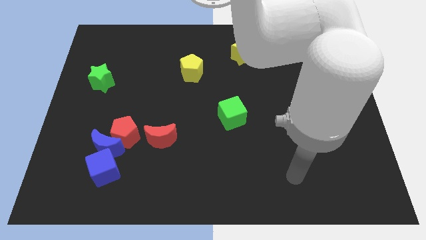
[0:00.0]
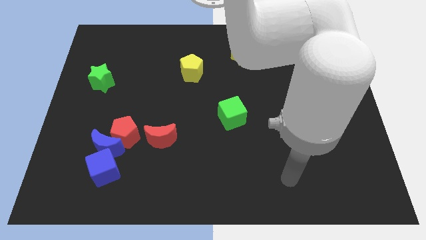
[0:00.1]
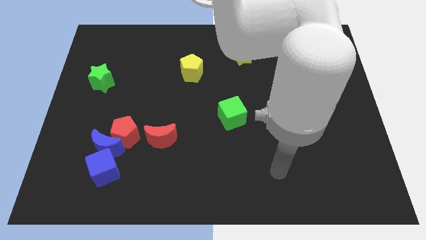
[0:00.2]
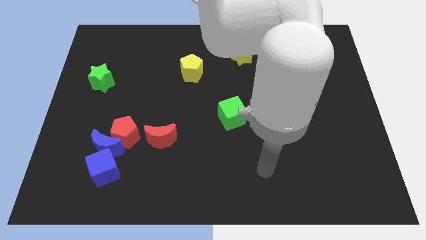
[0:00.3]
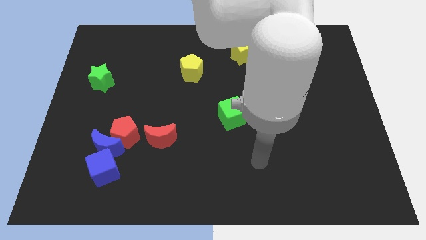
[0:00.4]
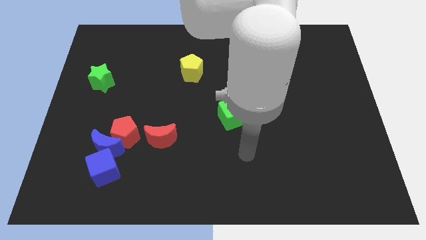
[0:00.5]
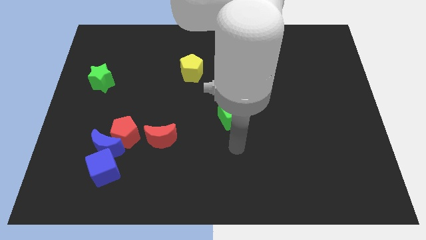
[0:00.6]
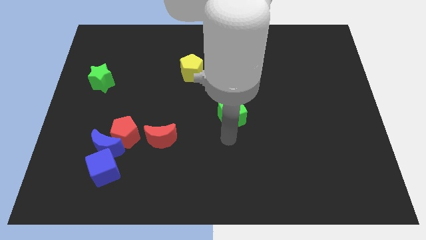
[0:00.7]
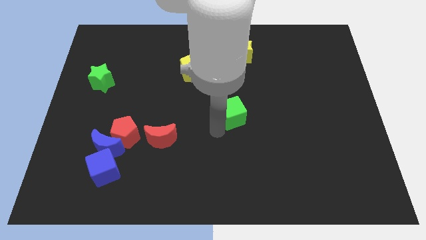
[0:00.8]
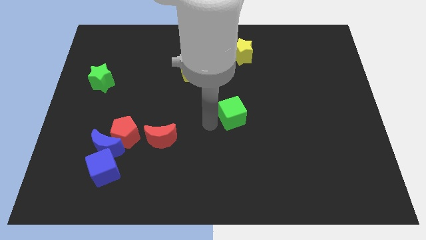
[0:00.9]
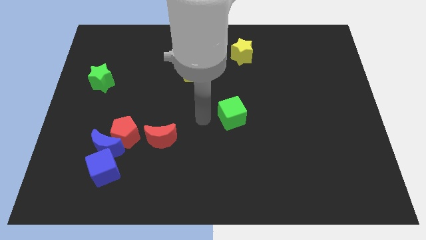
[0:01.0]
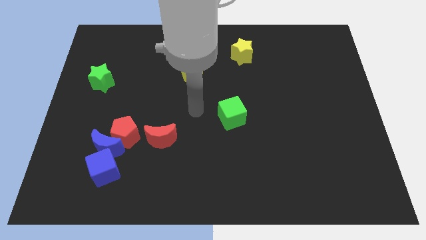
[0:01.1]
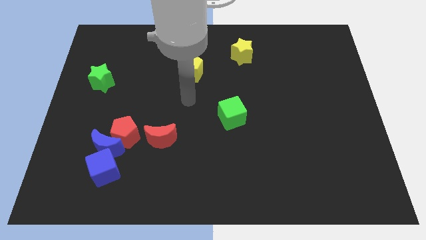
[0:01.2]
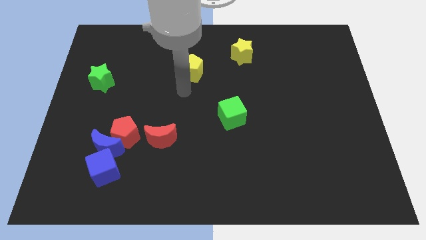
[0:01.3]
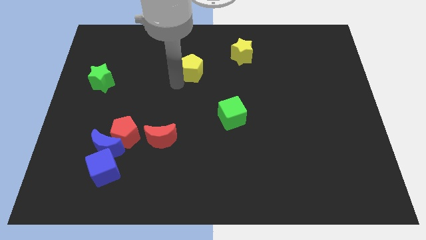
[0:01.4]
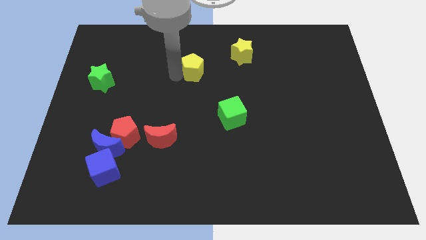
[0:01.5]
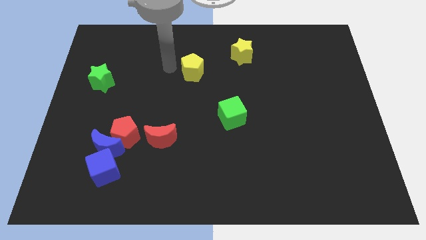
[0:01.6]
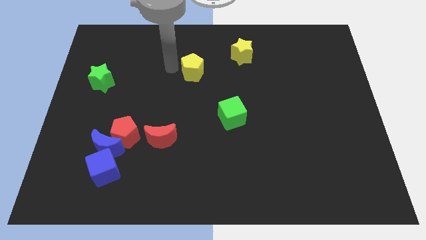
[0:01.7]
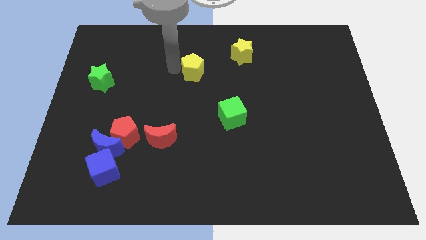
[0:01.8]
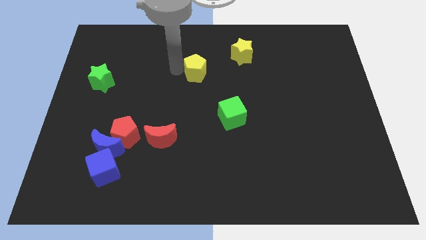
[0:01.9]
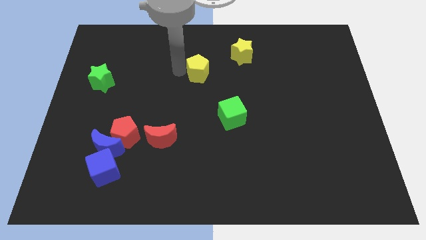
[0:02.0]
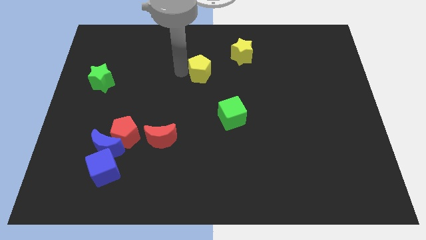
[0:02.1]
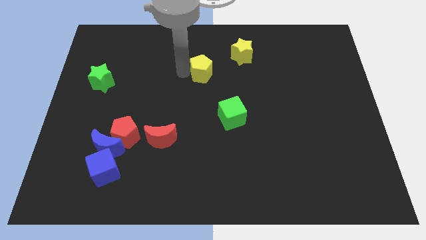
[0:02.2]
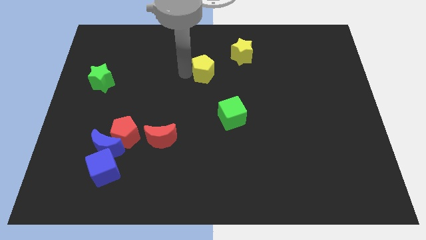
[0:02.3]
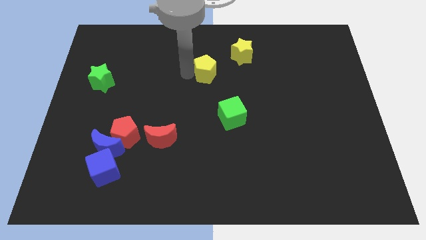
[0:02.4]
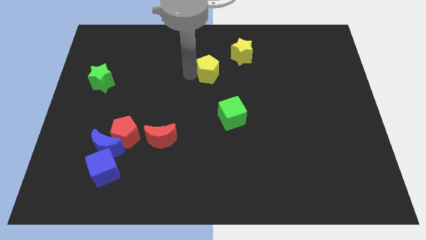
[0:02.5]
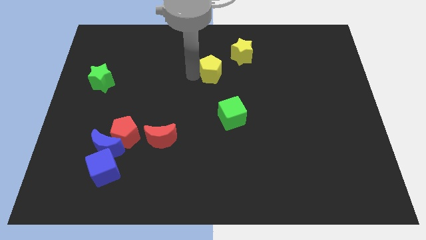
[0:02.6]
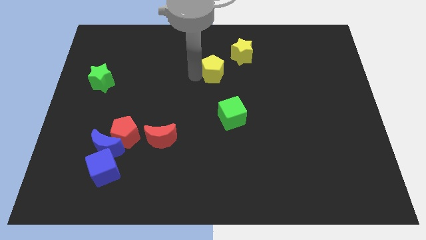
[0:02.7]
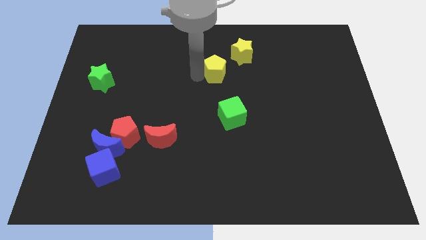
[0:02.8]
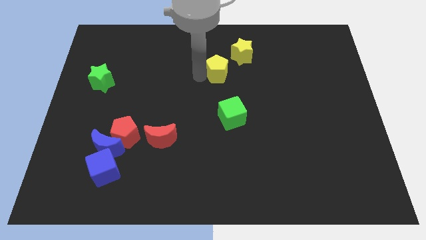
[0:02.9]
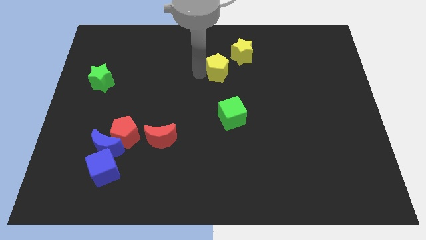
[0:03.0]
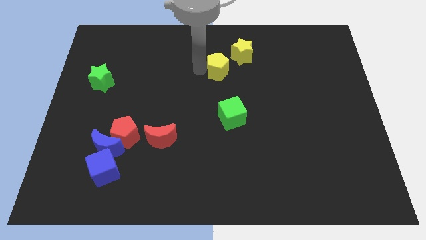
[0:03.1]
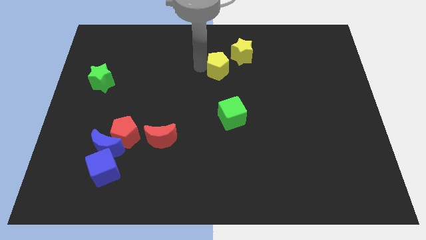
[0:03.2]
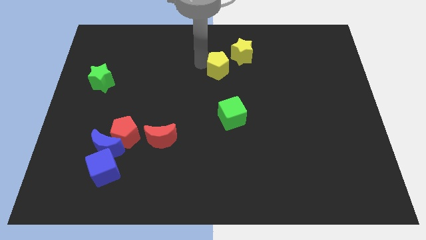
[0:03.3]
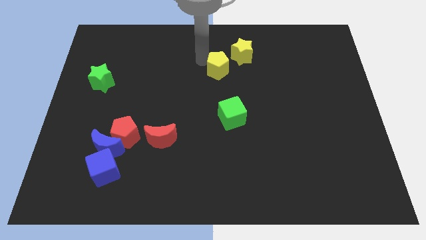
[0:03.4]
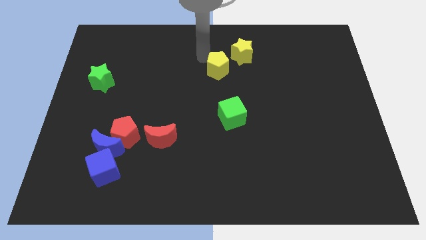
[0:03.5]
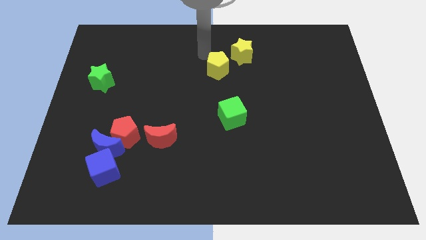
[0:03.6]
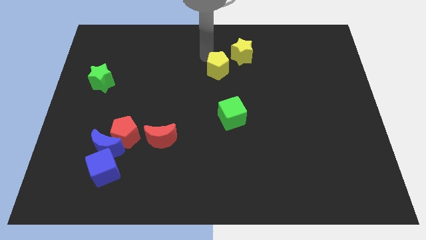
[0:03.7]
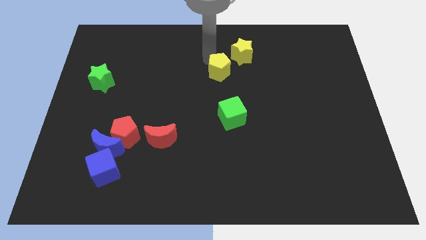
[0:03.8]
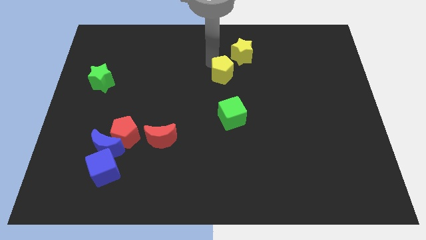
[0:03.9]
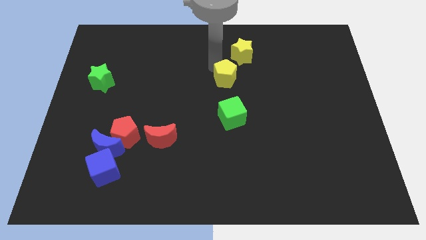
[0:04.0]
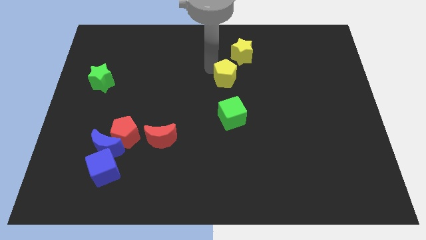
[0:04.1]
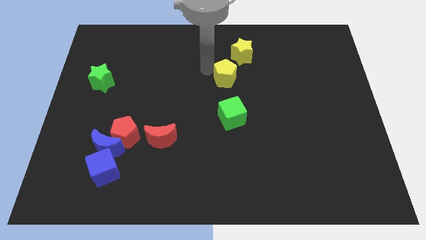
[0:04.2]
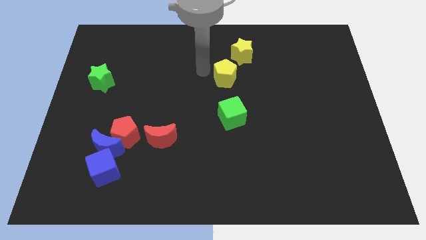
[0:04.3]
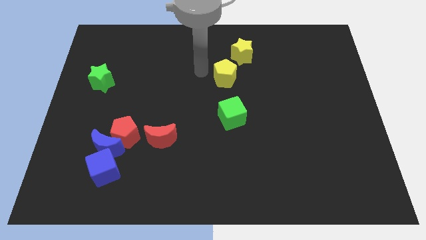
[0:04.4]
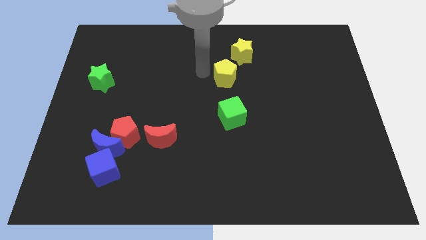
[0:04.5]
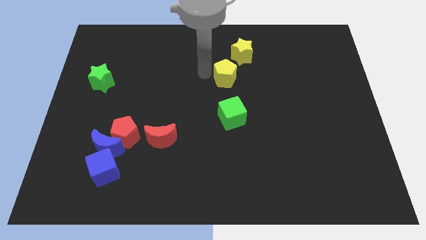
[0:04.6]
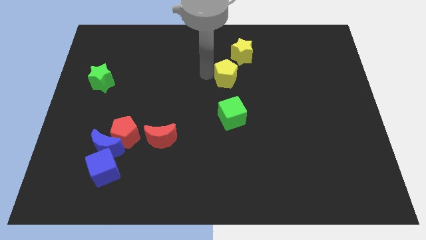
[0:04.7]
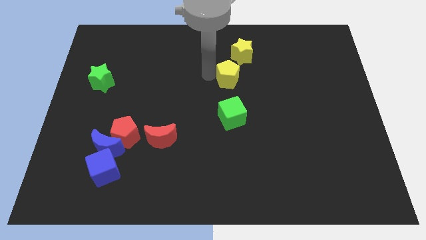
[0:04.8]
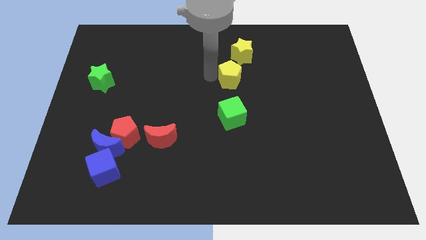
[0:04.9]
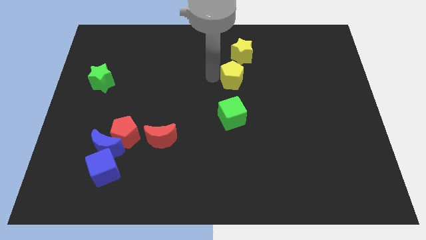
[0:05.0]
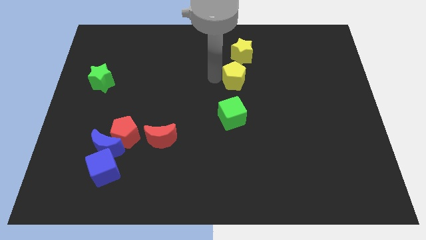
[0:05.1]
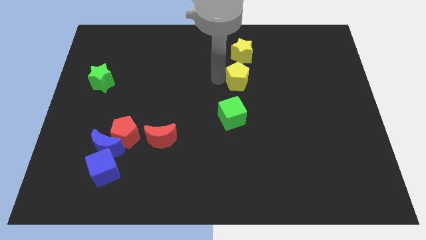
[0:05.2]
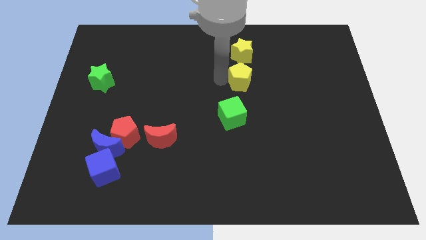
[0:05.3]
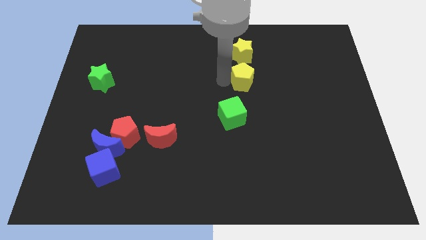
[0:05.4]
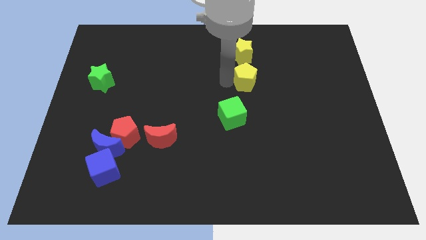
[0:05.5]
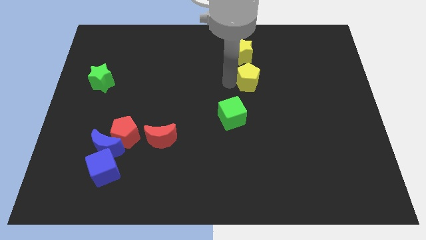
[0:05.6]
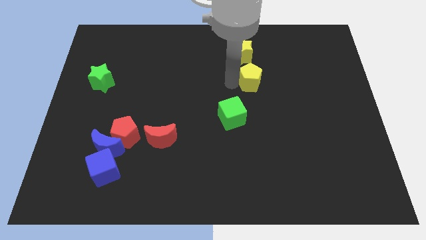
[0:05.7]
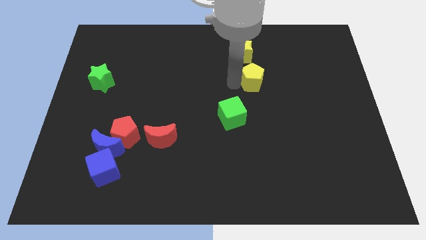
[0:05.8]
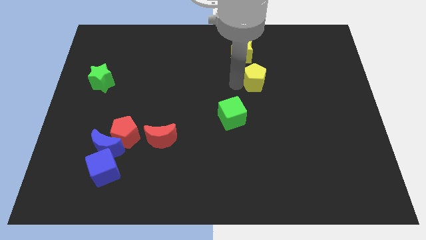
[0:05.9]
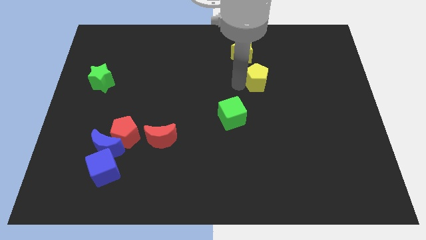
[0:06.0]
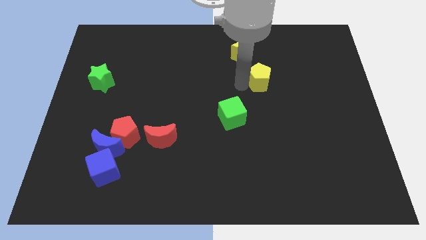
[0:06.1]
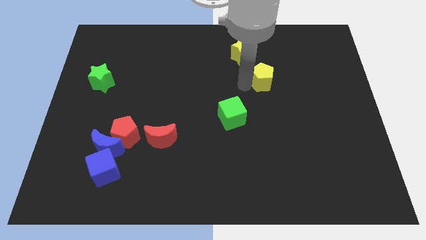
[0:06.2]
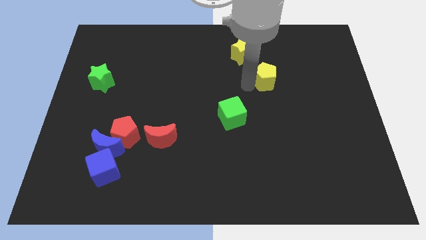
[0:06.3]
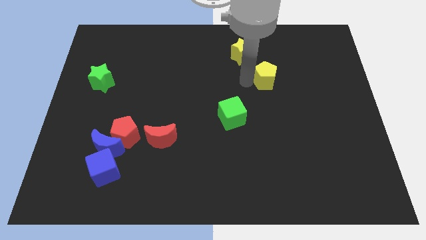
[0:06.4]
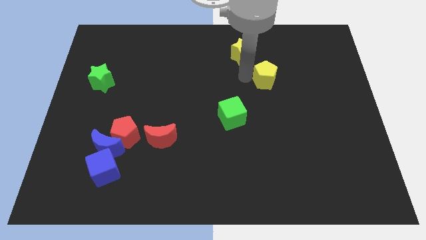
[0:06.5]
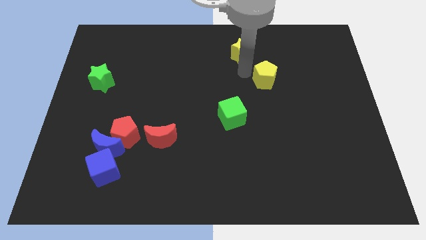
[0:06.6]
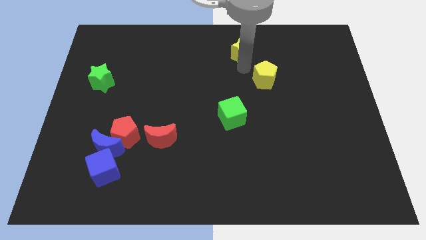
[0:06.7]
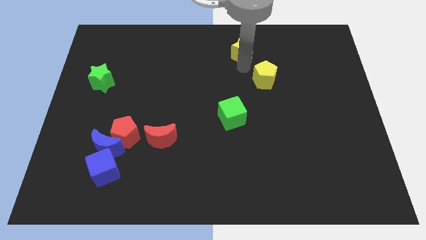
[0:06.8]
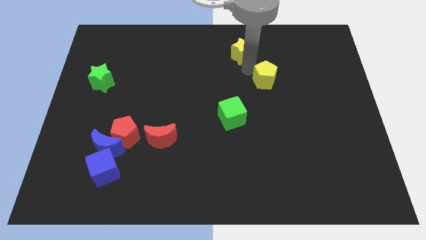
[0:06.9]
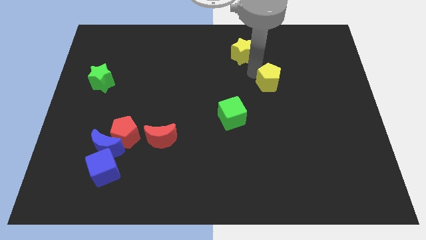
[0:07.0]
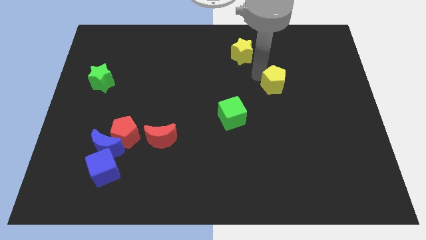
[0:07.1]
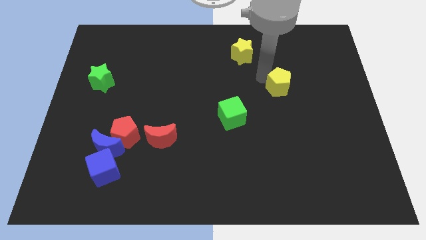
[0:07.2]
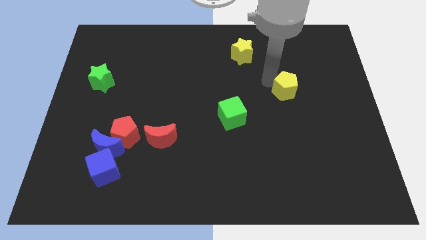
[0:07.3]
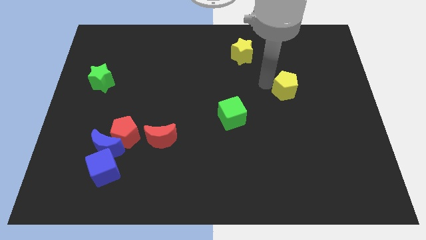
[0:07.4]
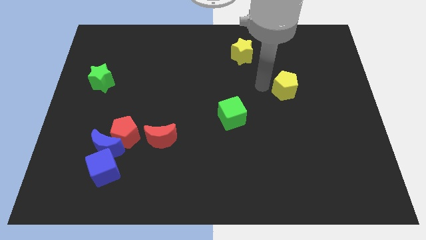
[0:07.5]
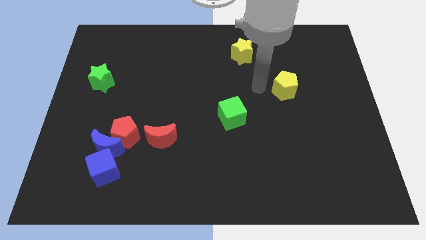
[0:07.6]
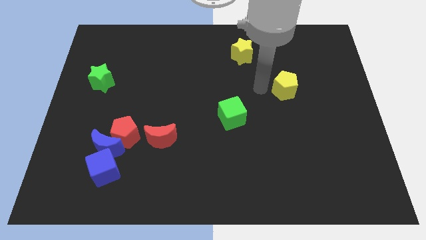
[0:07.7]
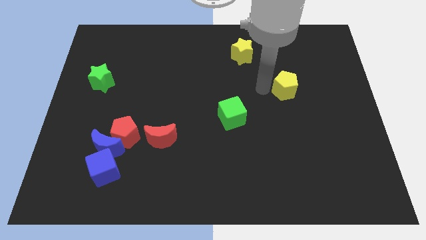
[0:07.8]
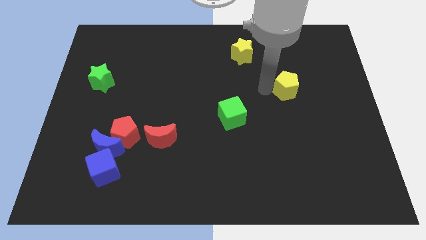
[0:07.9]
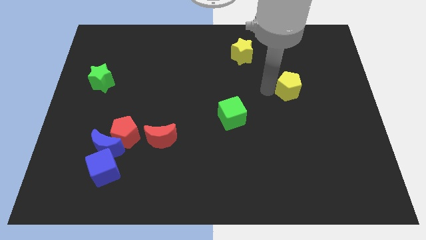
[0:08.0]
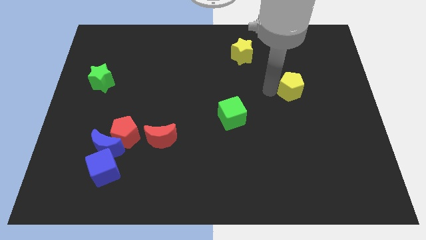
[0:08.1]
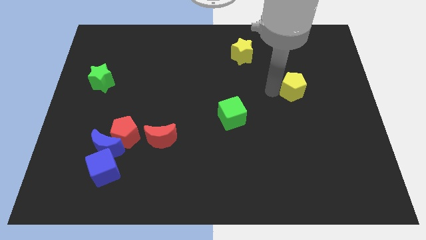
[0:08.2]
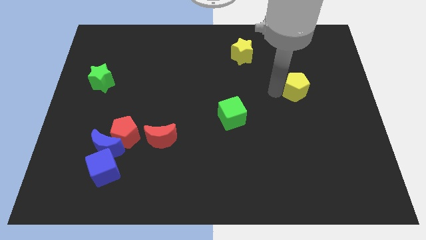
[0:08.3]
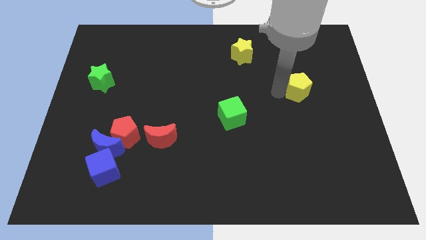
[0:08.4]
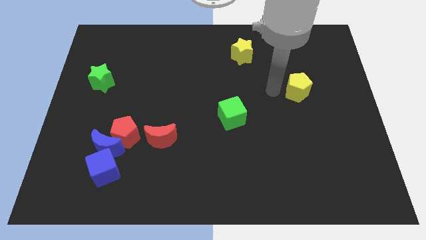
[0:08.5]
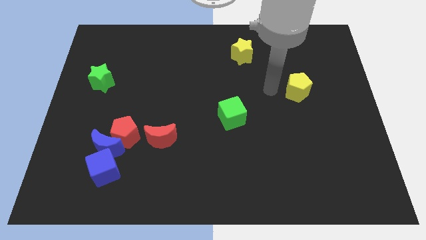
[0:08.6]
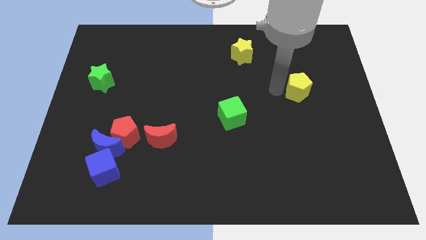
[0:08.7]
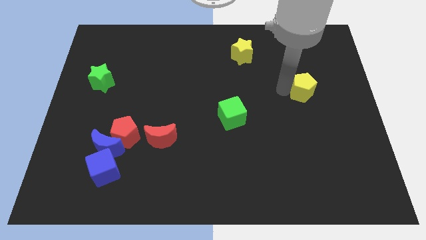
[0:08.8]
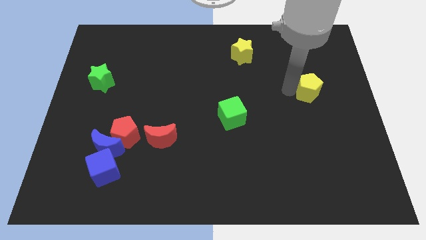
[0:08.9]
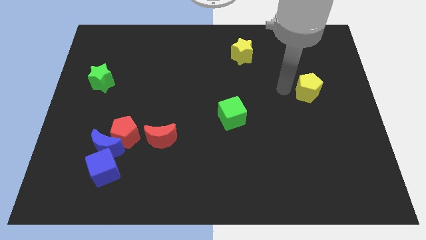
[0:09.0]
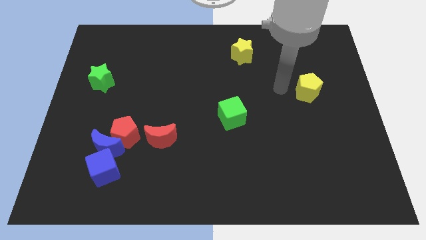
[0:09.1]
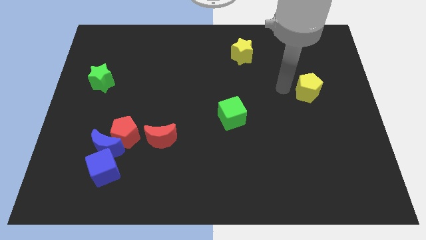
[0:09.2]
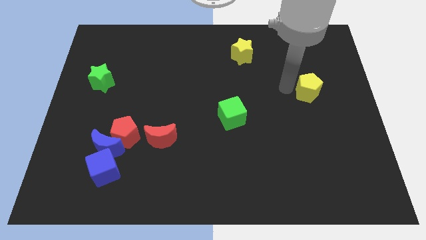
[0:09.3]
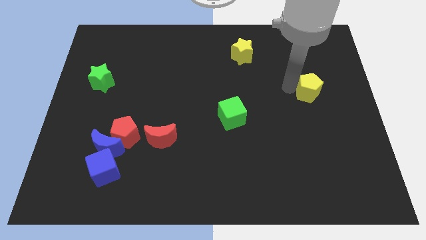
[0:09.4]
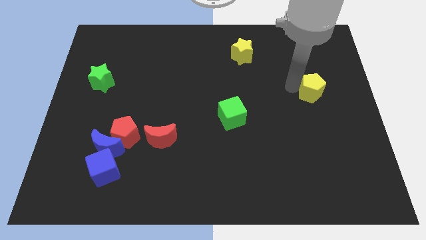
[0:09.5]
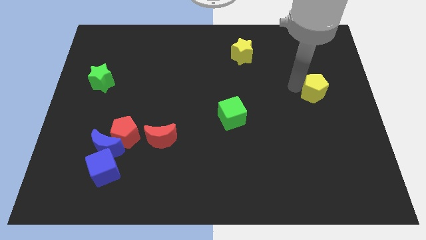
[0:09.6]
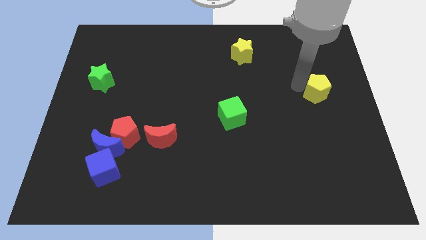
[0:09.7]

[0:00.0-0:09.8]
push the yellow pentagon to the right side of the board
